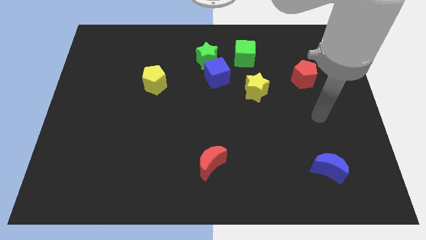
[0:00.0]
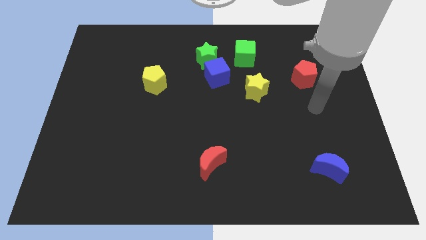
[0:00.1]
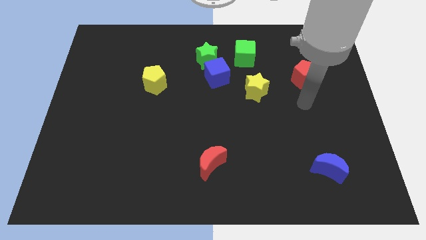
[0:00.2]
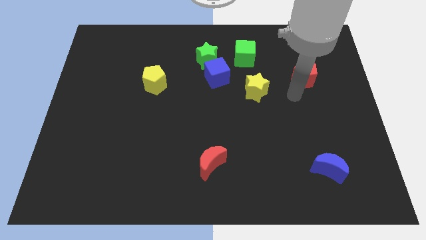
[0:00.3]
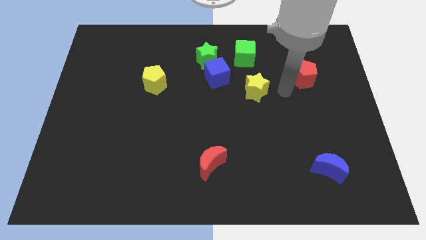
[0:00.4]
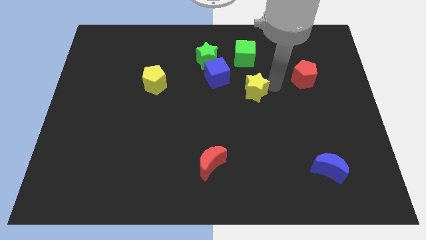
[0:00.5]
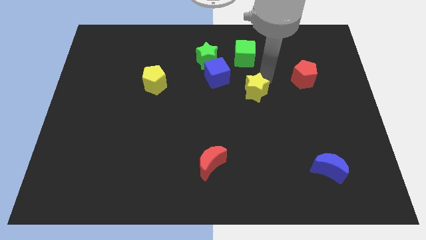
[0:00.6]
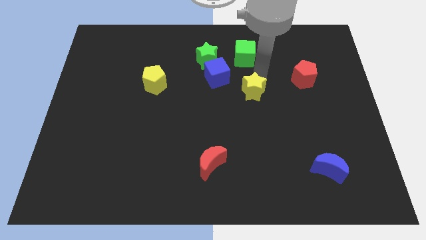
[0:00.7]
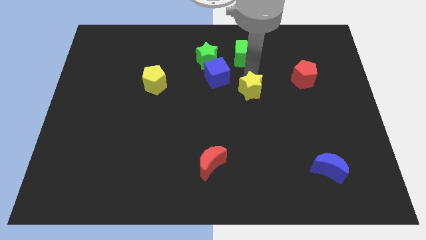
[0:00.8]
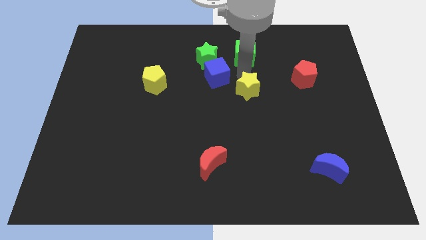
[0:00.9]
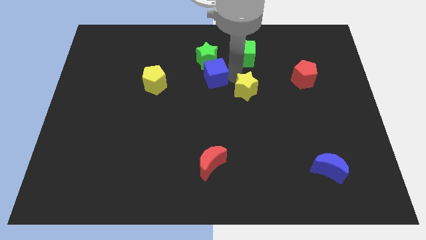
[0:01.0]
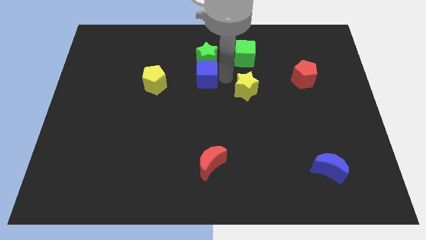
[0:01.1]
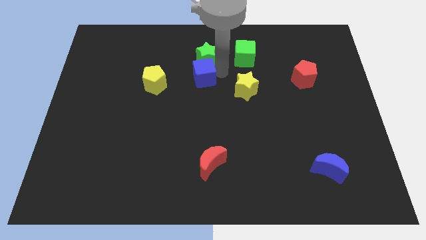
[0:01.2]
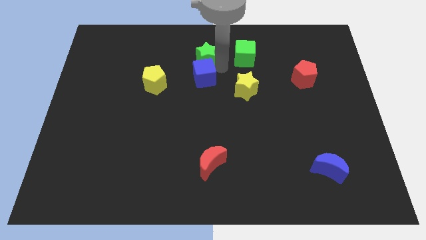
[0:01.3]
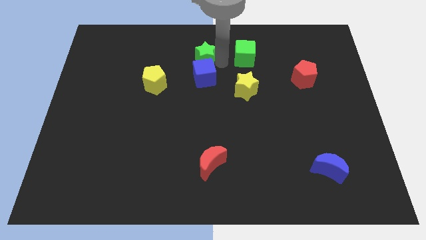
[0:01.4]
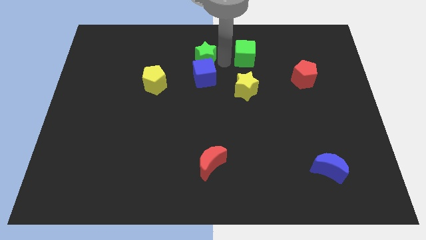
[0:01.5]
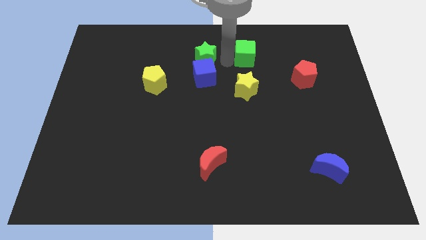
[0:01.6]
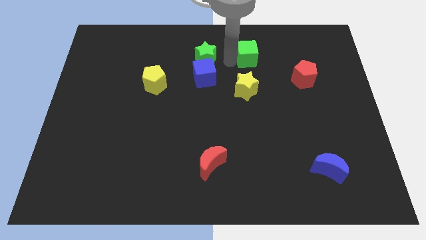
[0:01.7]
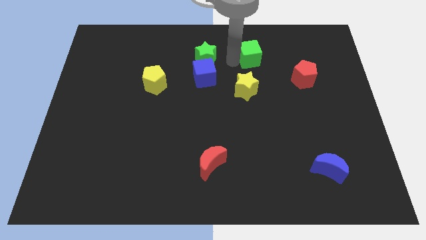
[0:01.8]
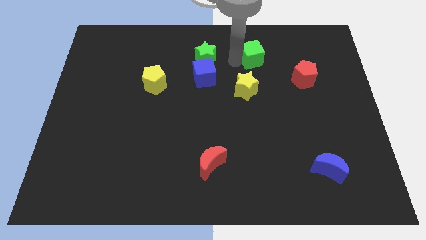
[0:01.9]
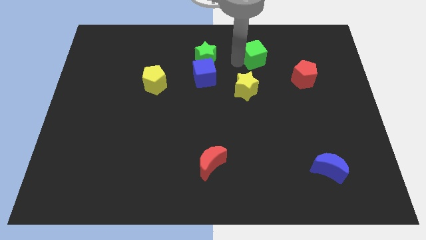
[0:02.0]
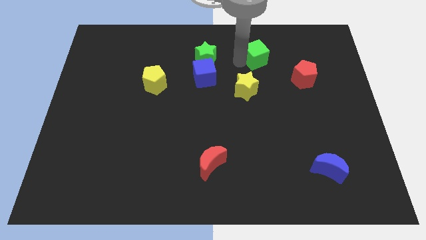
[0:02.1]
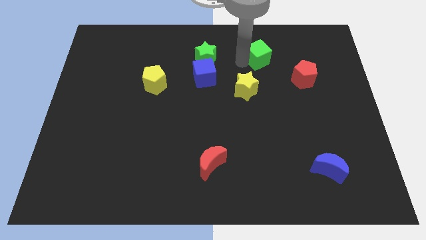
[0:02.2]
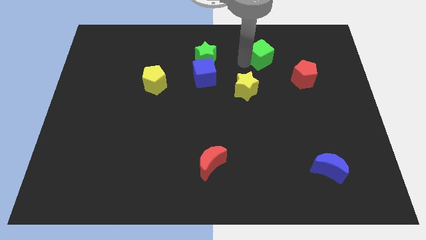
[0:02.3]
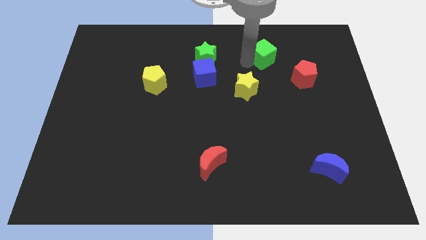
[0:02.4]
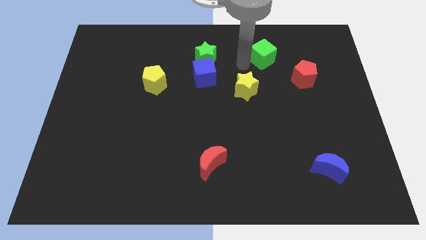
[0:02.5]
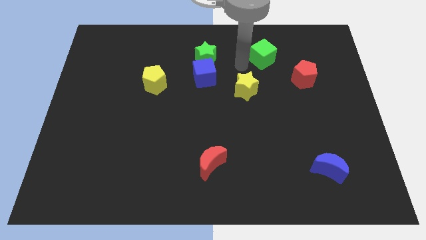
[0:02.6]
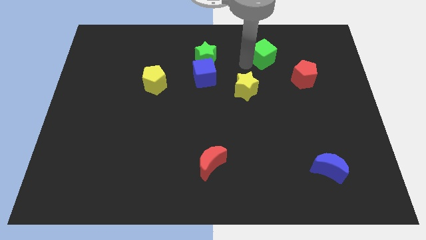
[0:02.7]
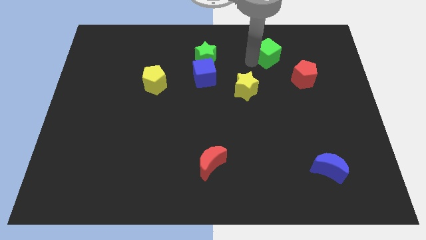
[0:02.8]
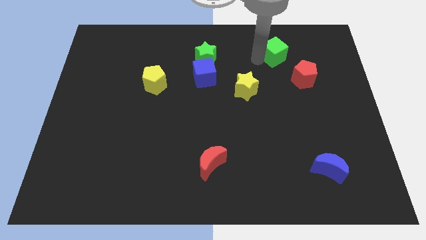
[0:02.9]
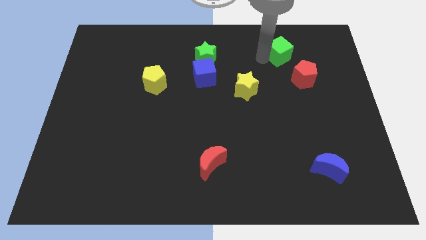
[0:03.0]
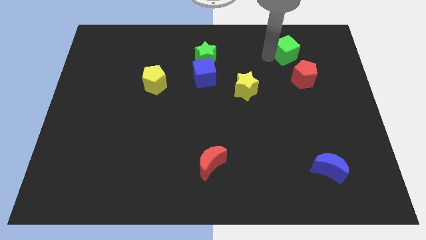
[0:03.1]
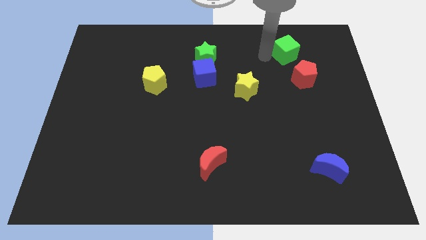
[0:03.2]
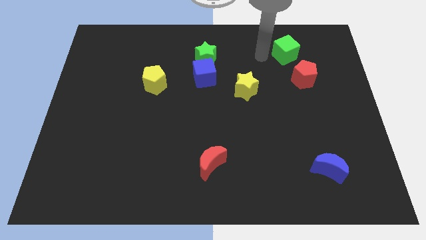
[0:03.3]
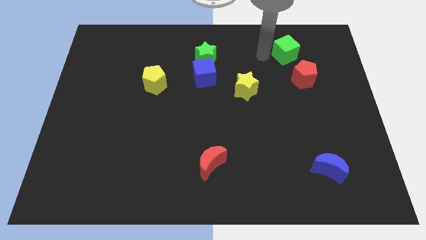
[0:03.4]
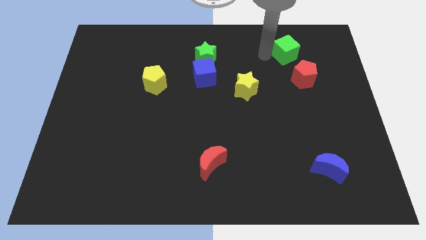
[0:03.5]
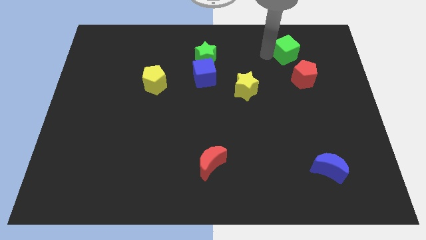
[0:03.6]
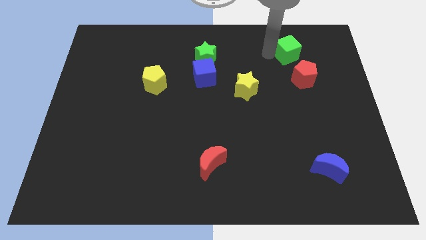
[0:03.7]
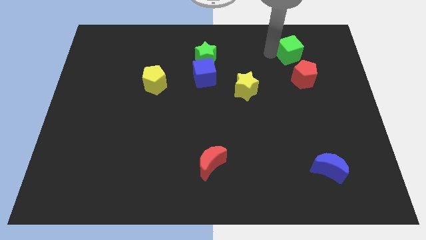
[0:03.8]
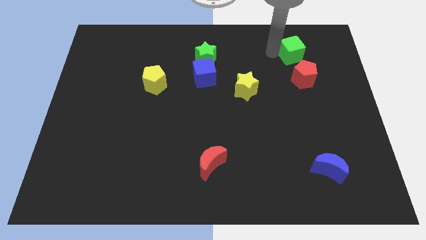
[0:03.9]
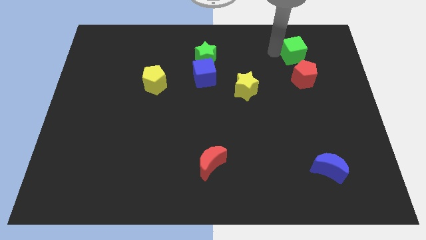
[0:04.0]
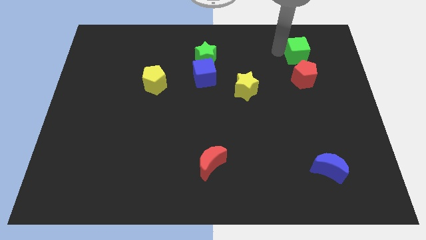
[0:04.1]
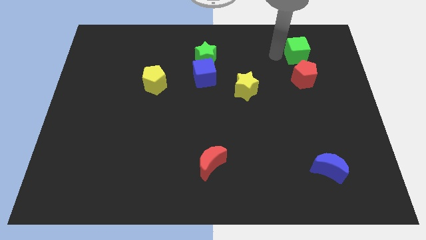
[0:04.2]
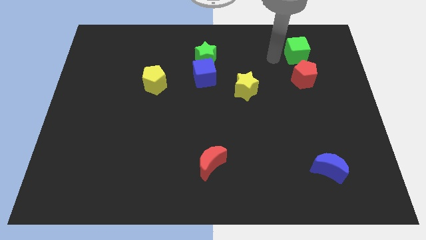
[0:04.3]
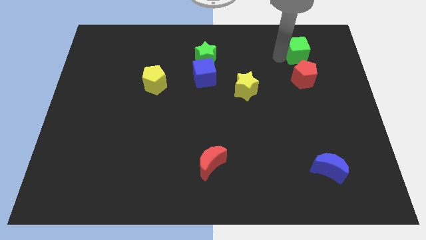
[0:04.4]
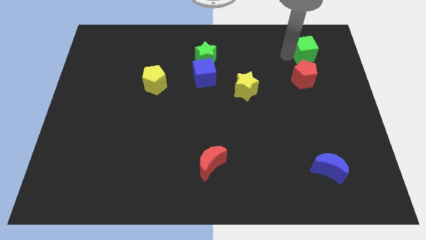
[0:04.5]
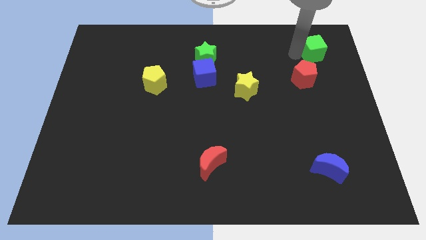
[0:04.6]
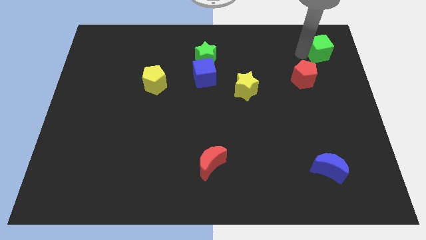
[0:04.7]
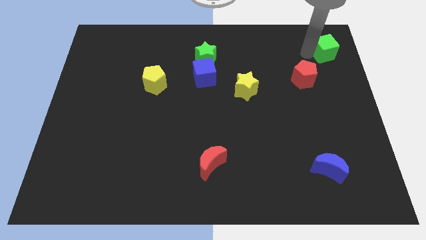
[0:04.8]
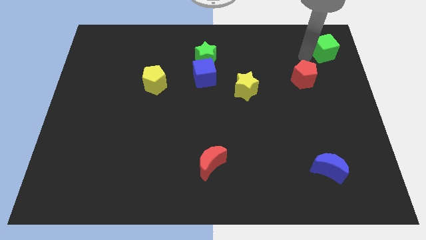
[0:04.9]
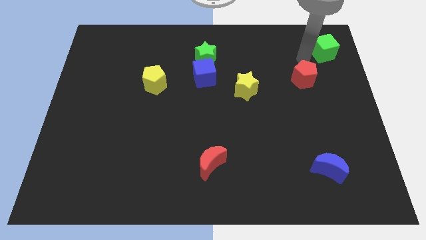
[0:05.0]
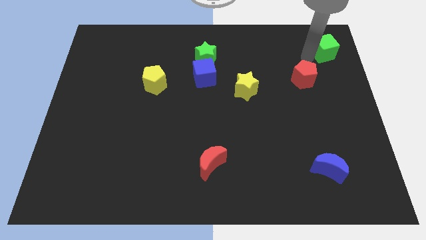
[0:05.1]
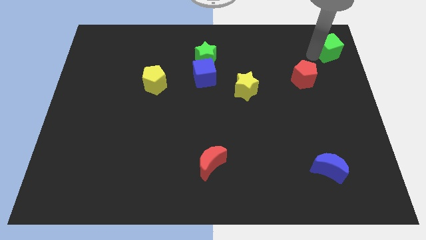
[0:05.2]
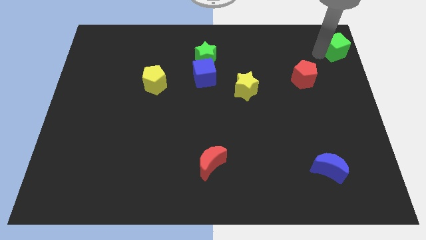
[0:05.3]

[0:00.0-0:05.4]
push the green cube to the upper right corner
